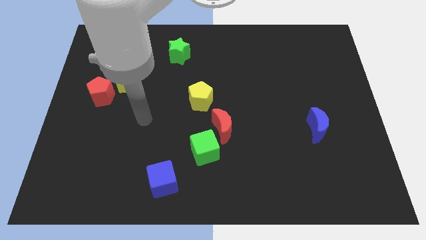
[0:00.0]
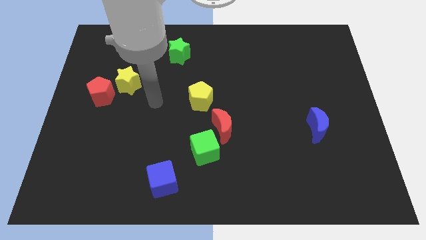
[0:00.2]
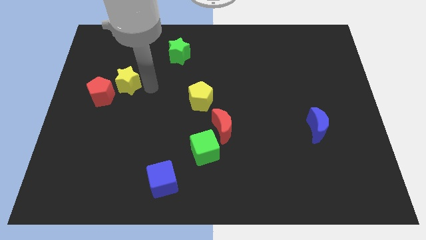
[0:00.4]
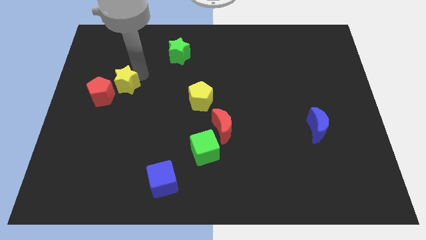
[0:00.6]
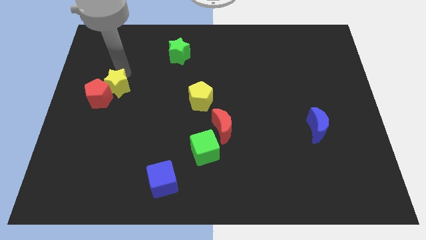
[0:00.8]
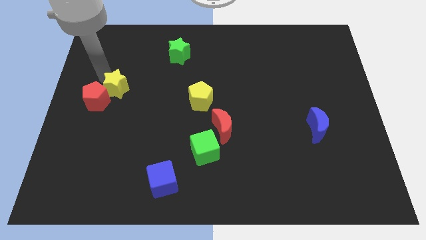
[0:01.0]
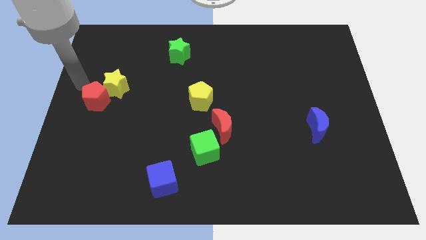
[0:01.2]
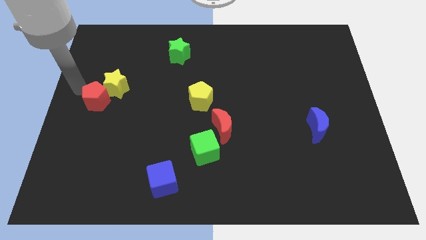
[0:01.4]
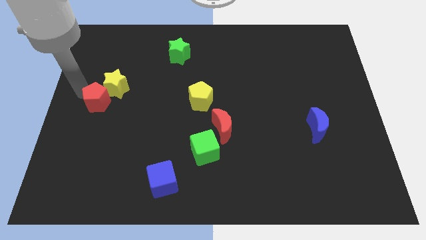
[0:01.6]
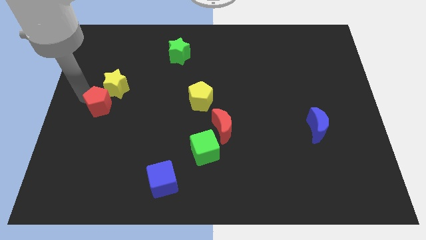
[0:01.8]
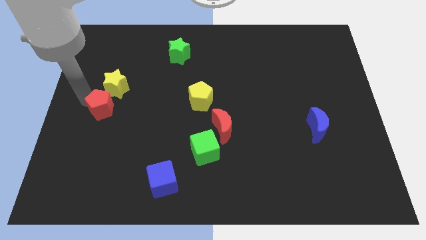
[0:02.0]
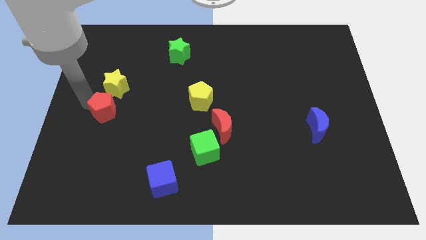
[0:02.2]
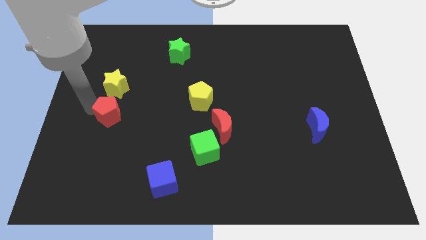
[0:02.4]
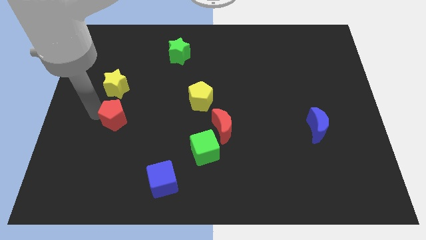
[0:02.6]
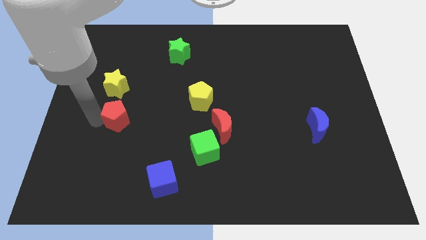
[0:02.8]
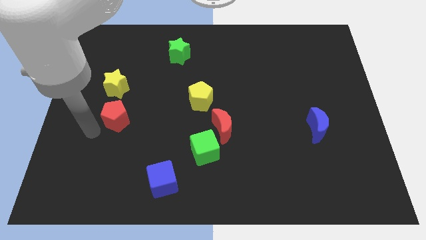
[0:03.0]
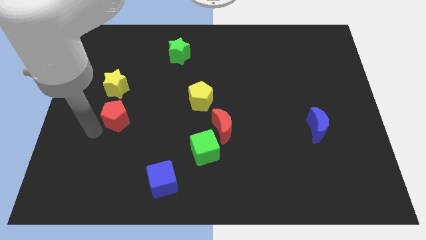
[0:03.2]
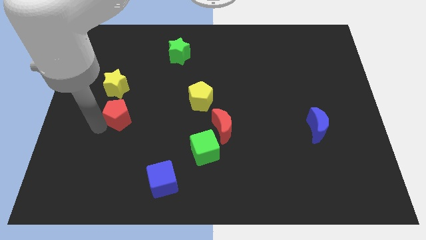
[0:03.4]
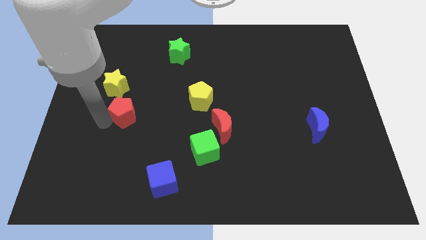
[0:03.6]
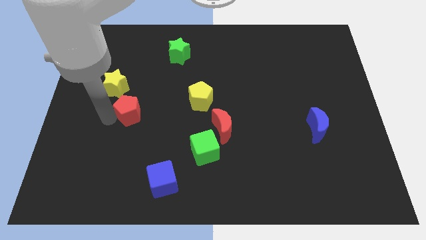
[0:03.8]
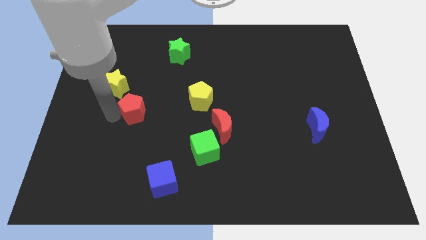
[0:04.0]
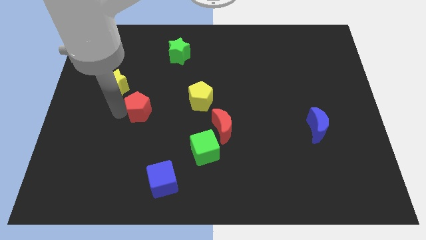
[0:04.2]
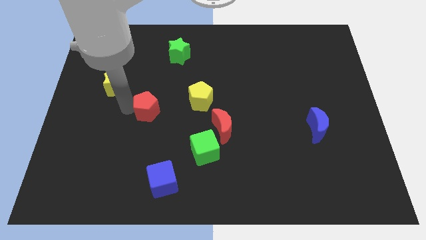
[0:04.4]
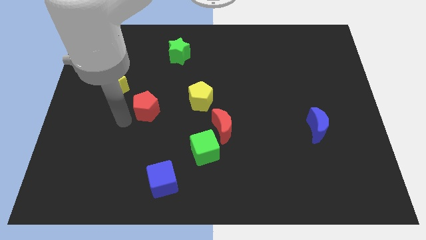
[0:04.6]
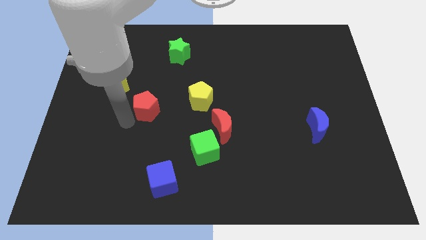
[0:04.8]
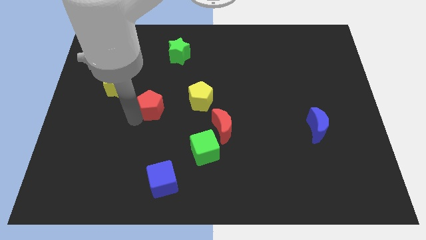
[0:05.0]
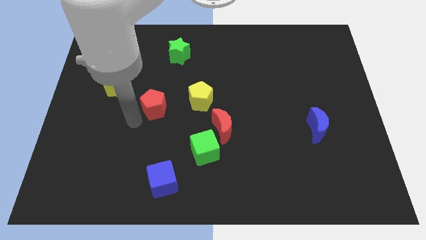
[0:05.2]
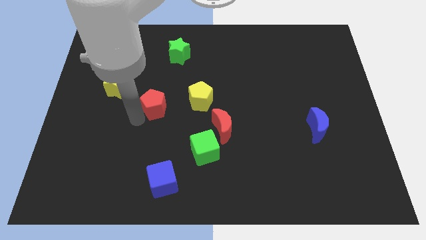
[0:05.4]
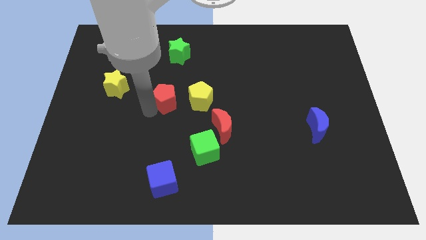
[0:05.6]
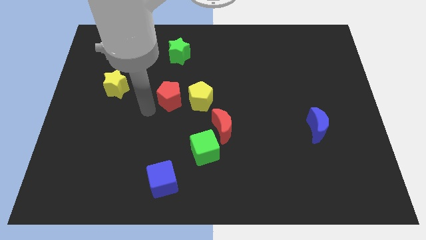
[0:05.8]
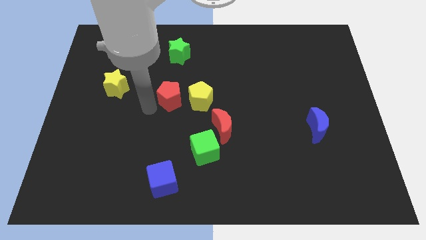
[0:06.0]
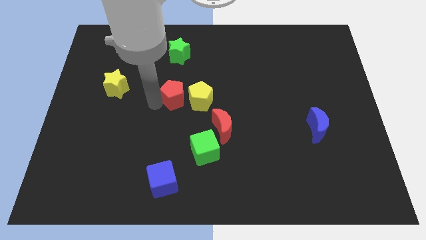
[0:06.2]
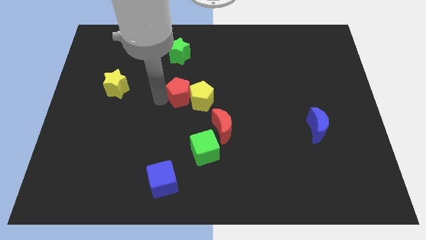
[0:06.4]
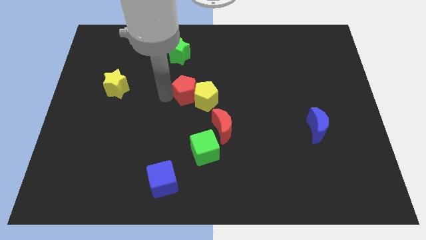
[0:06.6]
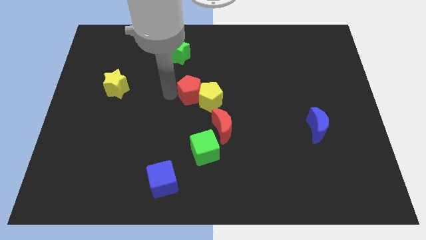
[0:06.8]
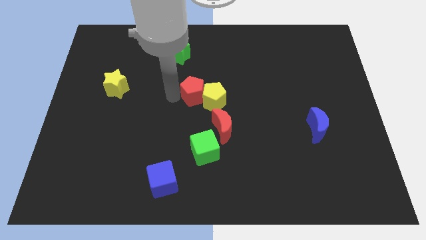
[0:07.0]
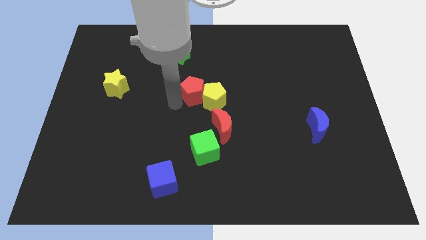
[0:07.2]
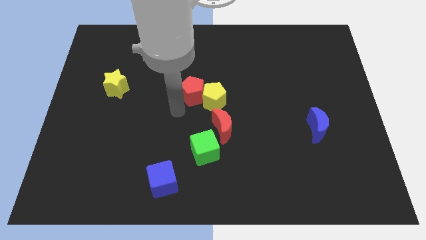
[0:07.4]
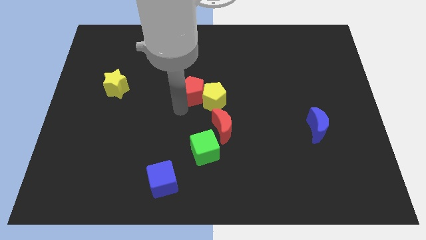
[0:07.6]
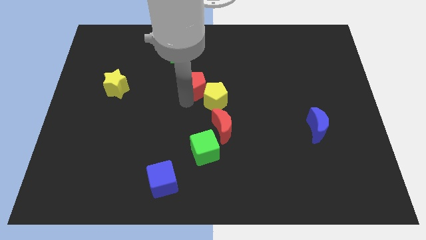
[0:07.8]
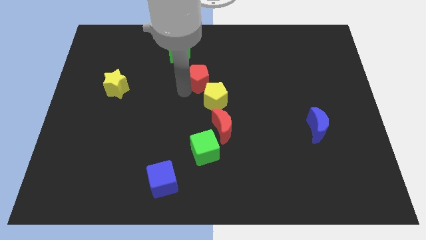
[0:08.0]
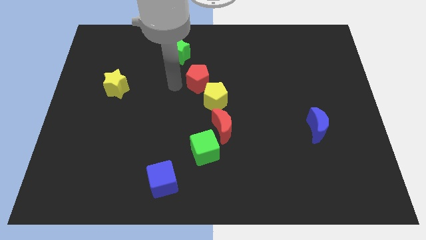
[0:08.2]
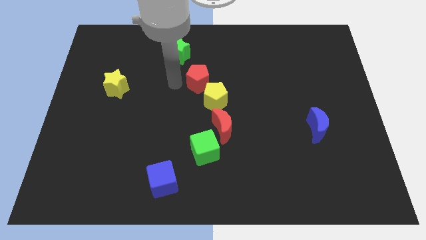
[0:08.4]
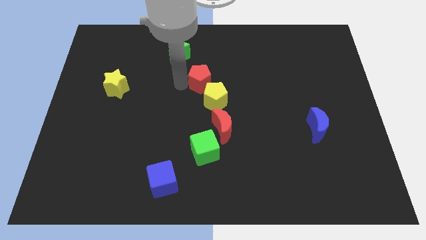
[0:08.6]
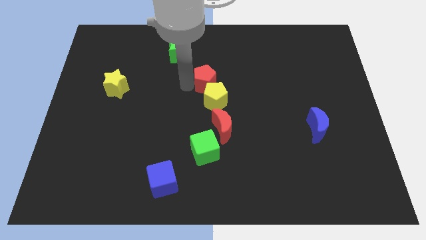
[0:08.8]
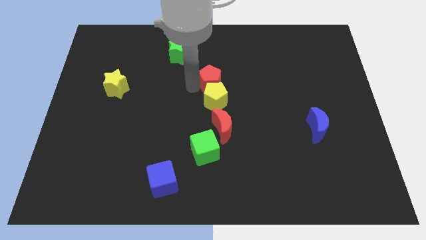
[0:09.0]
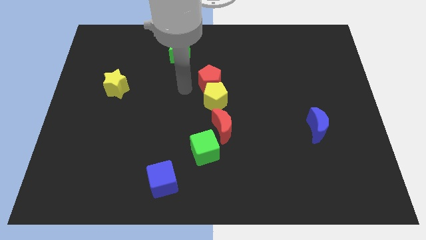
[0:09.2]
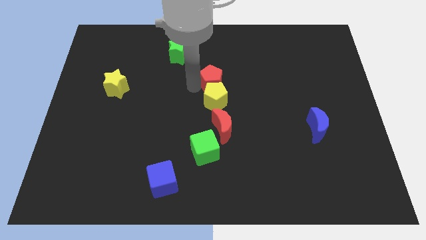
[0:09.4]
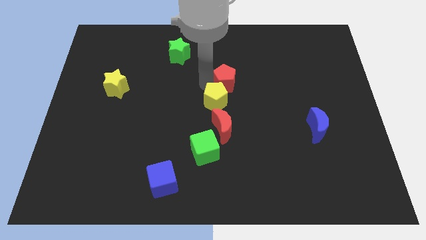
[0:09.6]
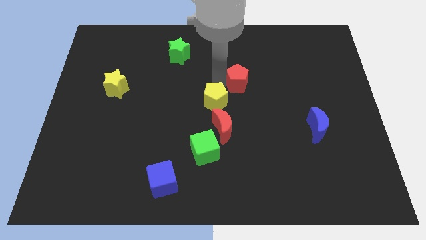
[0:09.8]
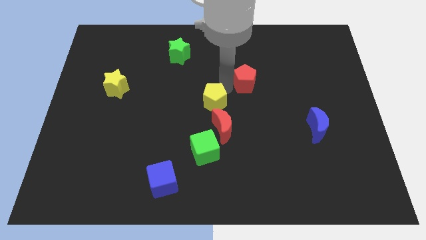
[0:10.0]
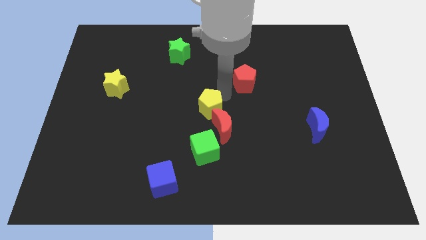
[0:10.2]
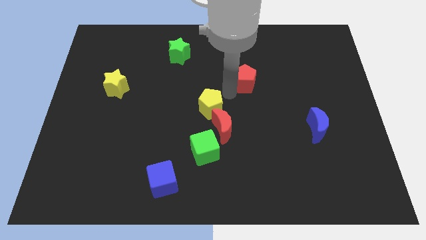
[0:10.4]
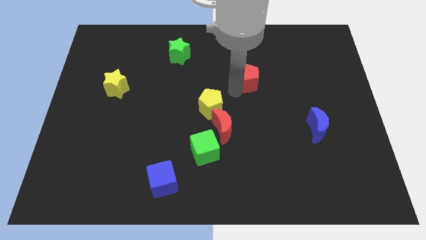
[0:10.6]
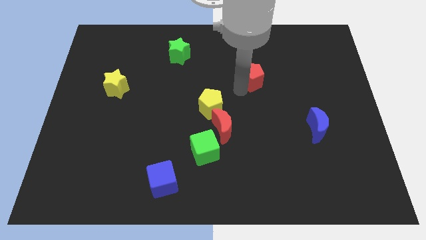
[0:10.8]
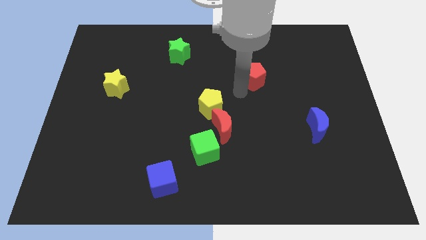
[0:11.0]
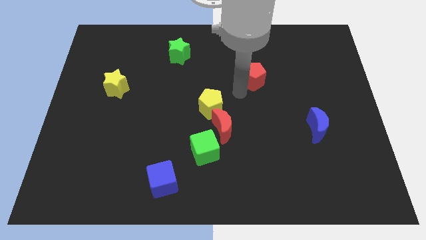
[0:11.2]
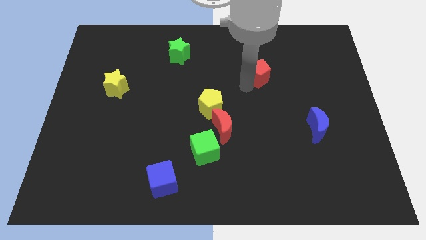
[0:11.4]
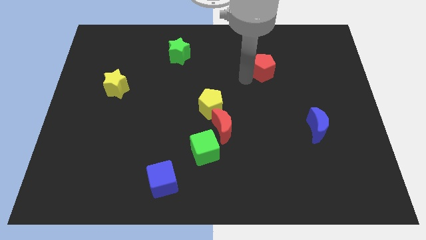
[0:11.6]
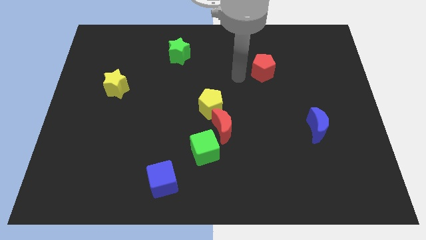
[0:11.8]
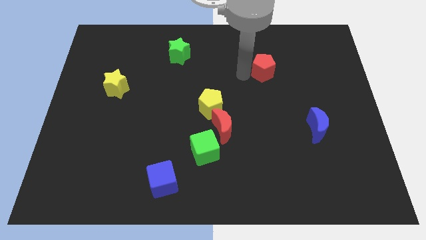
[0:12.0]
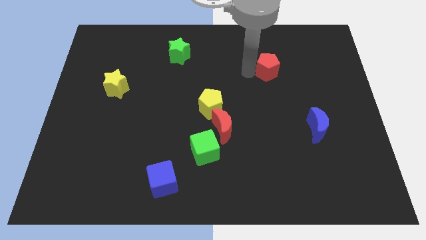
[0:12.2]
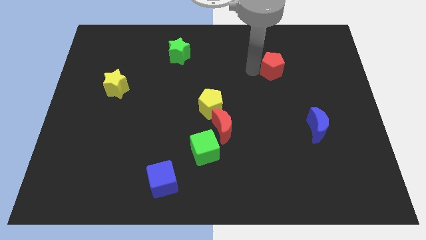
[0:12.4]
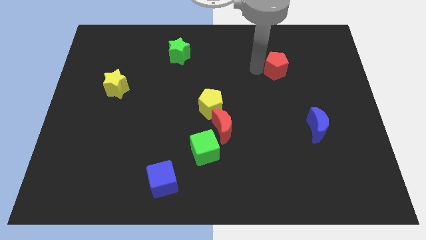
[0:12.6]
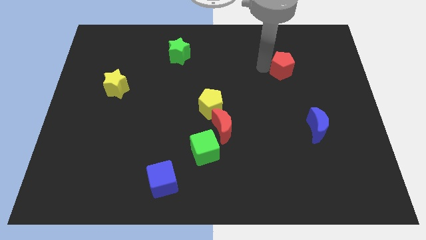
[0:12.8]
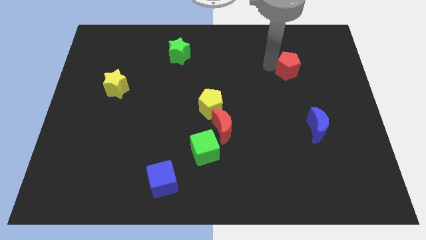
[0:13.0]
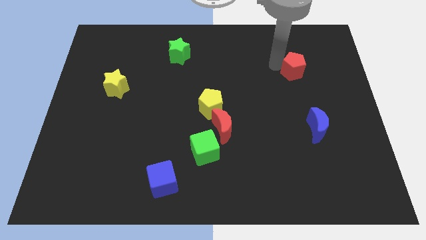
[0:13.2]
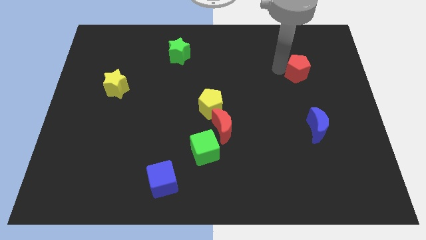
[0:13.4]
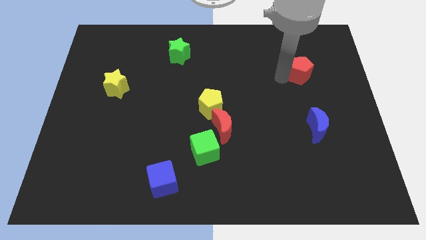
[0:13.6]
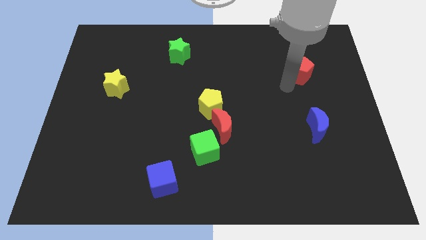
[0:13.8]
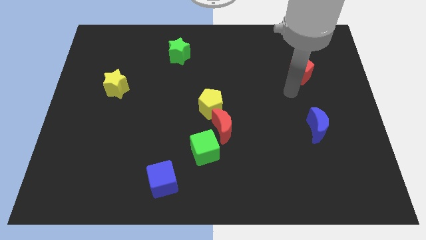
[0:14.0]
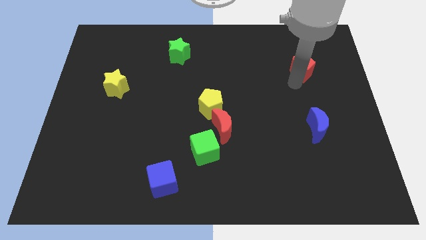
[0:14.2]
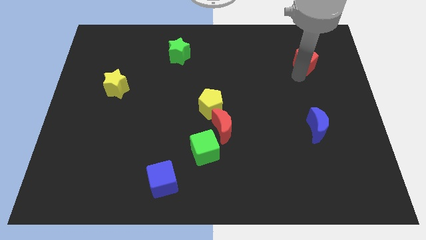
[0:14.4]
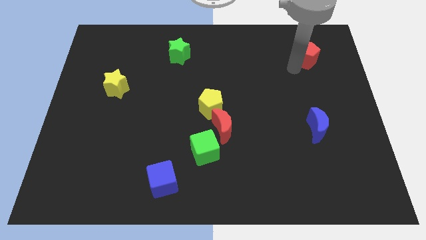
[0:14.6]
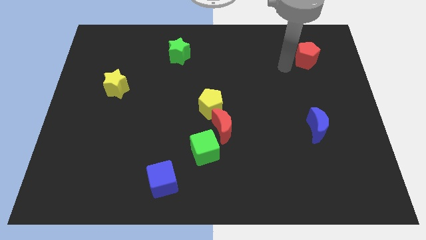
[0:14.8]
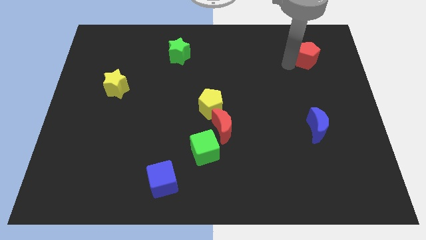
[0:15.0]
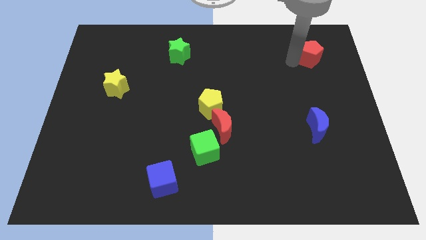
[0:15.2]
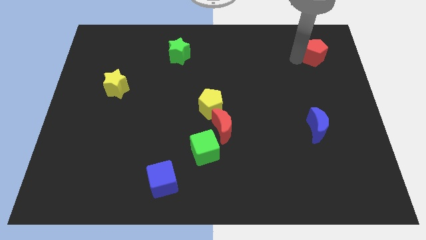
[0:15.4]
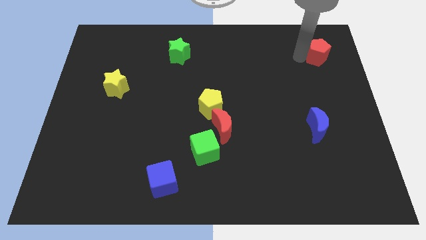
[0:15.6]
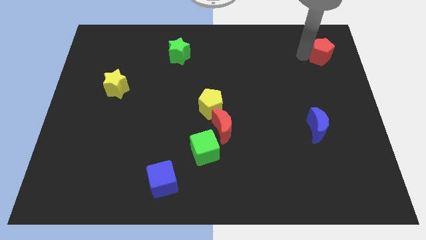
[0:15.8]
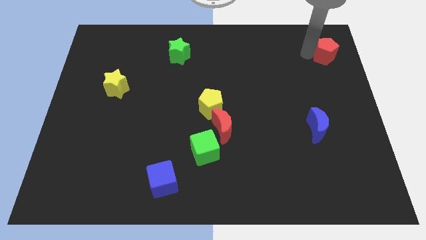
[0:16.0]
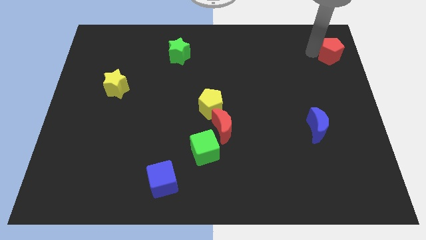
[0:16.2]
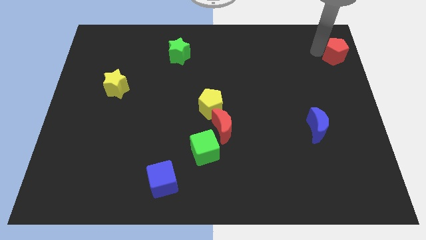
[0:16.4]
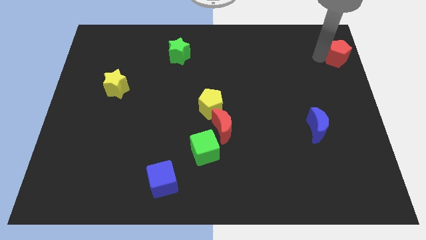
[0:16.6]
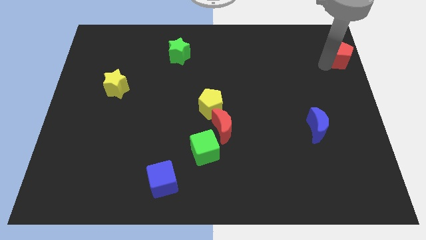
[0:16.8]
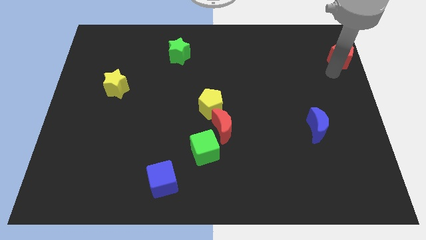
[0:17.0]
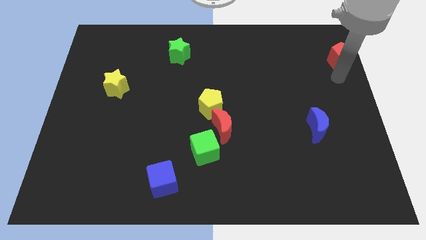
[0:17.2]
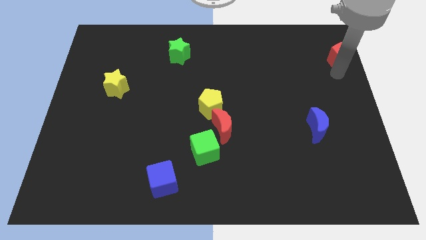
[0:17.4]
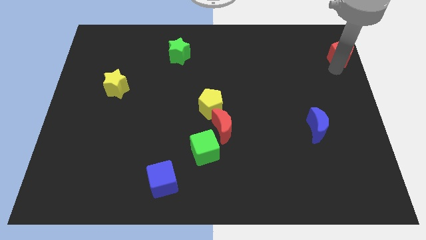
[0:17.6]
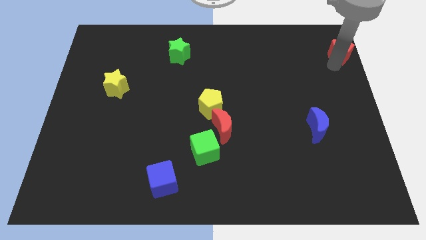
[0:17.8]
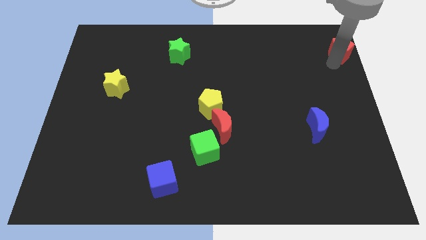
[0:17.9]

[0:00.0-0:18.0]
put the red pentagon to the upper right corner
